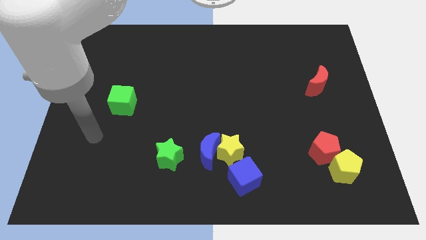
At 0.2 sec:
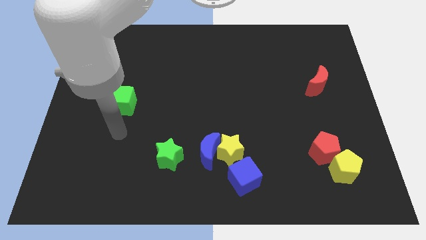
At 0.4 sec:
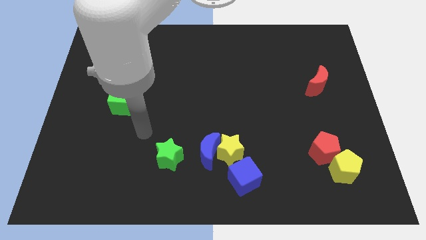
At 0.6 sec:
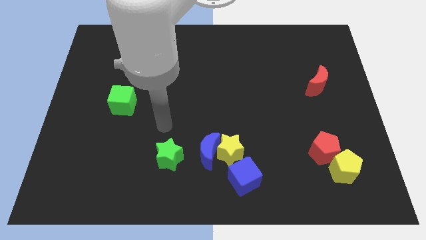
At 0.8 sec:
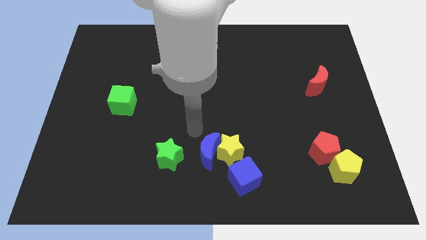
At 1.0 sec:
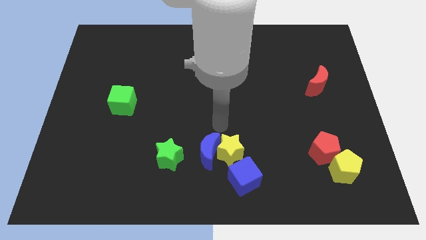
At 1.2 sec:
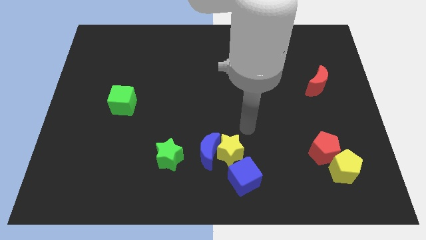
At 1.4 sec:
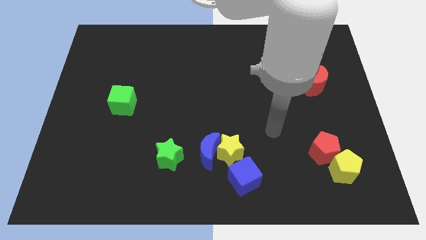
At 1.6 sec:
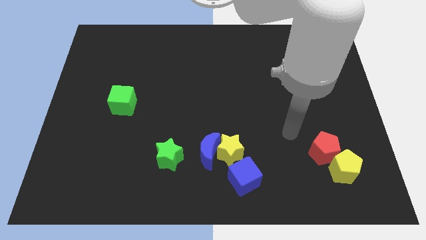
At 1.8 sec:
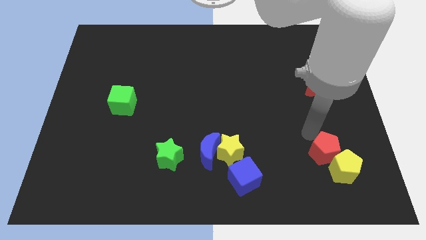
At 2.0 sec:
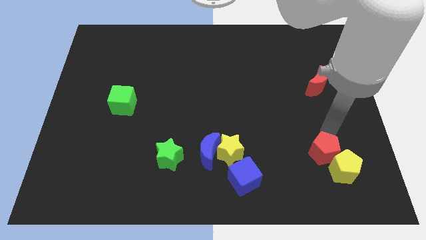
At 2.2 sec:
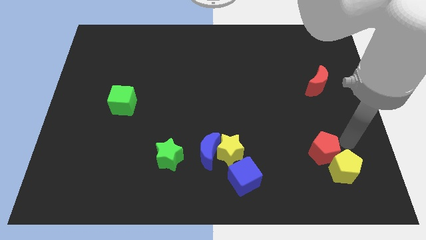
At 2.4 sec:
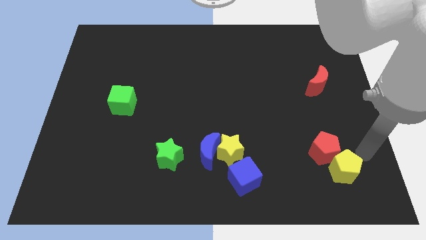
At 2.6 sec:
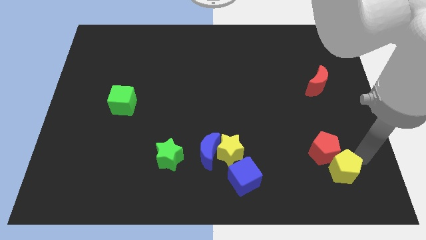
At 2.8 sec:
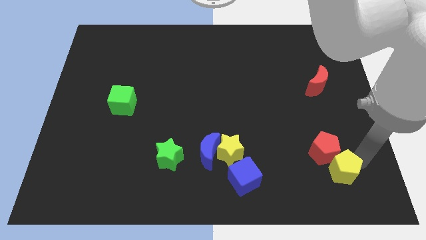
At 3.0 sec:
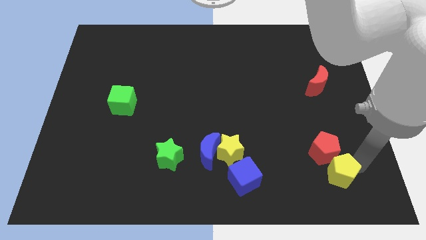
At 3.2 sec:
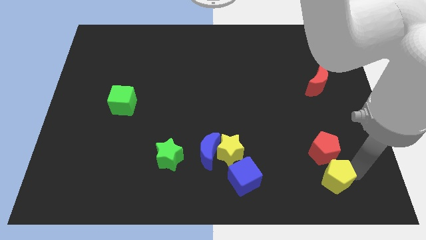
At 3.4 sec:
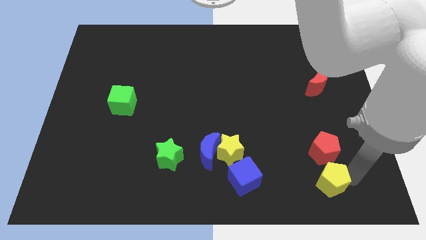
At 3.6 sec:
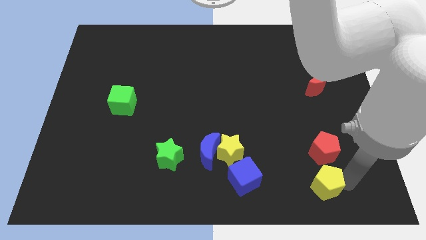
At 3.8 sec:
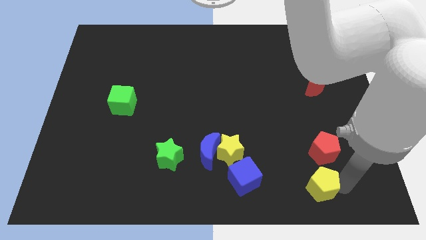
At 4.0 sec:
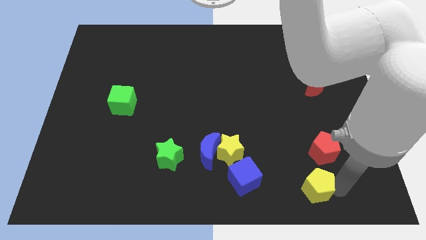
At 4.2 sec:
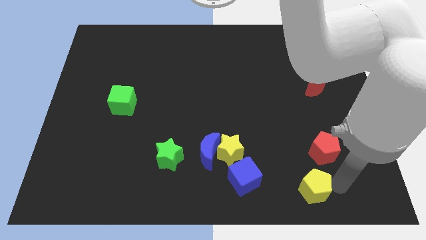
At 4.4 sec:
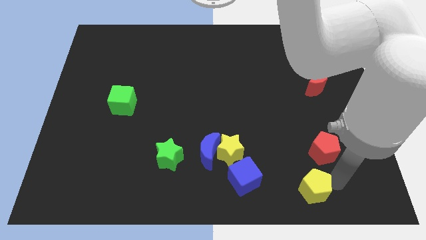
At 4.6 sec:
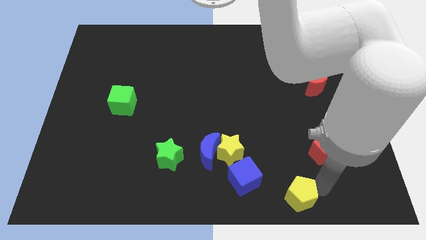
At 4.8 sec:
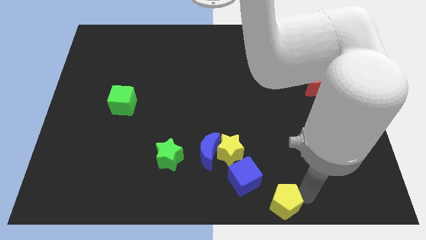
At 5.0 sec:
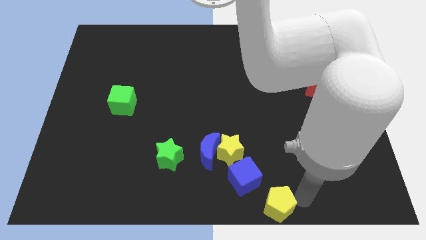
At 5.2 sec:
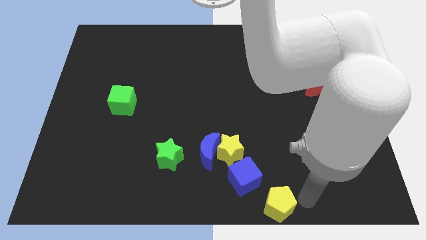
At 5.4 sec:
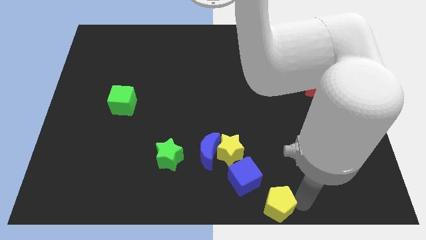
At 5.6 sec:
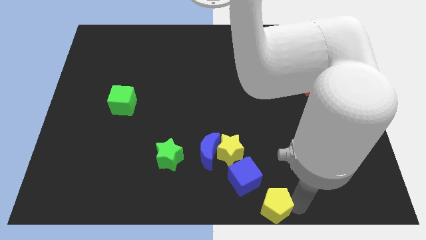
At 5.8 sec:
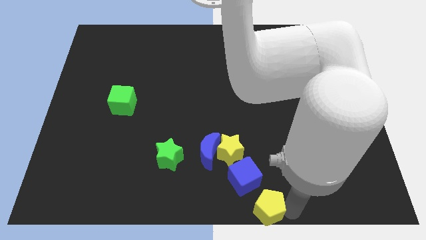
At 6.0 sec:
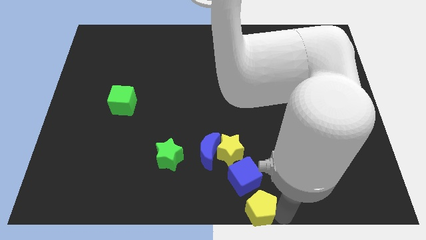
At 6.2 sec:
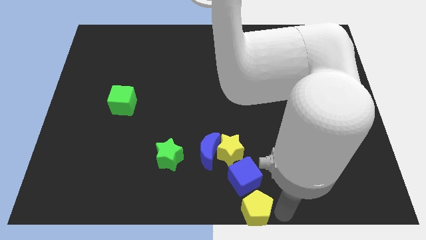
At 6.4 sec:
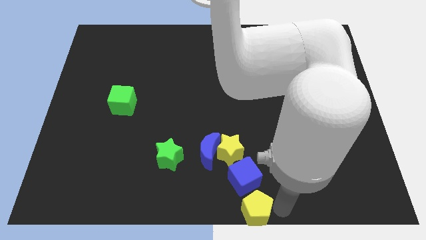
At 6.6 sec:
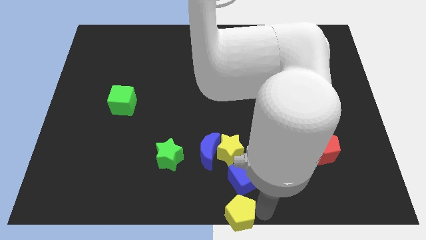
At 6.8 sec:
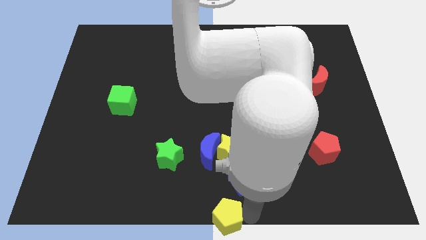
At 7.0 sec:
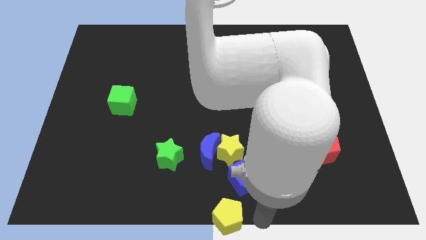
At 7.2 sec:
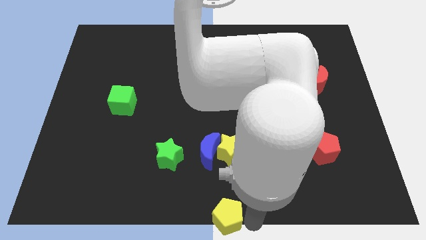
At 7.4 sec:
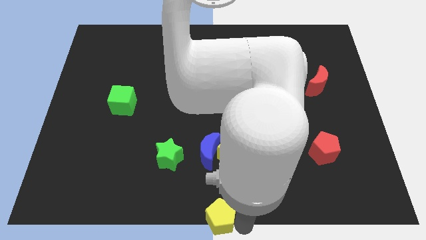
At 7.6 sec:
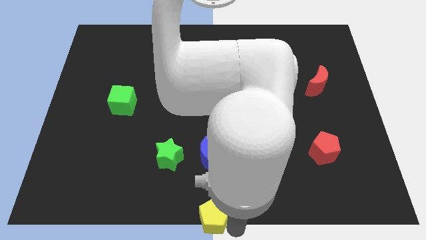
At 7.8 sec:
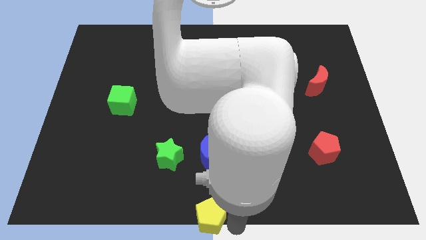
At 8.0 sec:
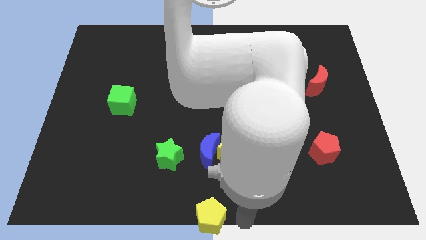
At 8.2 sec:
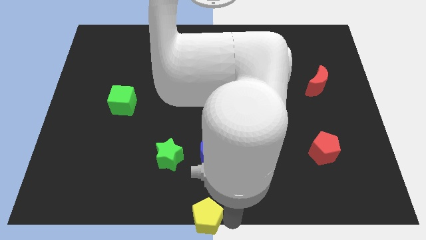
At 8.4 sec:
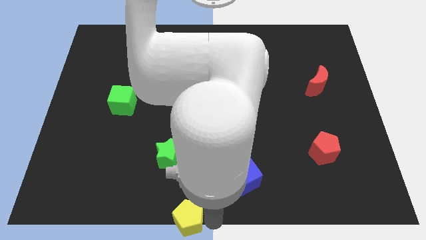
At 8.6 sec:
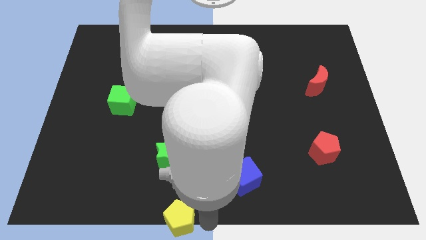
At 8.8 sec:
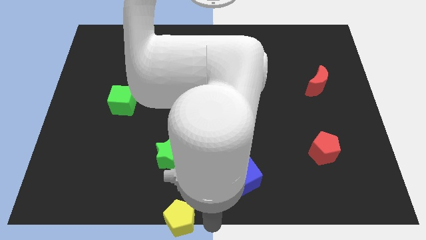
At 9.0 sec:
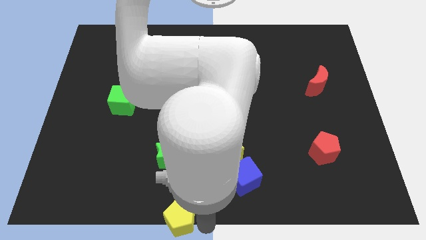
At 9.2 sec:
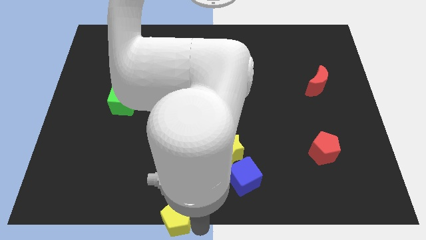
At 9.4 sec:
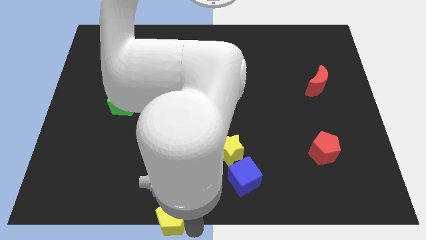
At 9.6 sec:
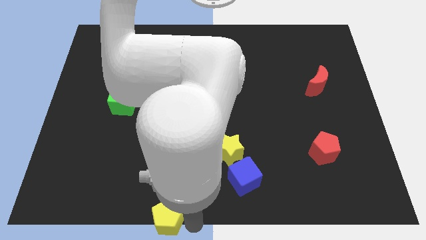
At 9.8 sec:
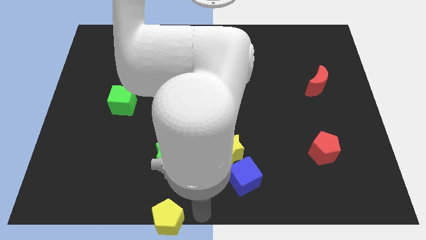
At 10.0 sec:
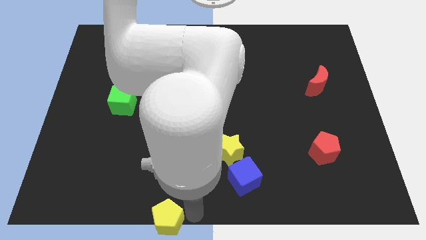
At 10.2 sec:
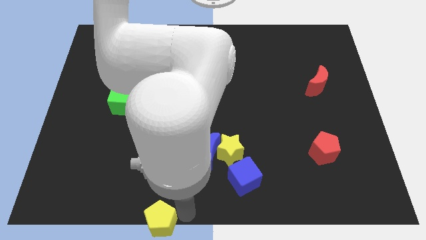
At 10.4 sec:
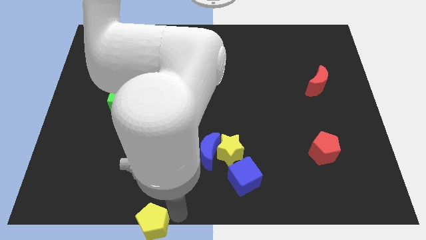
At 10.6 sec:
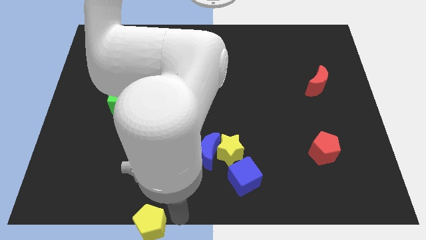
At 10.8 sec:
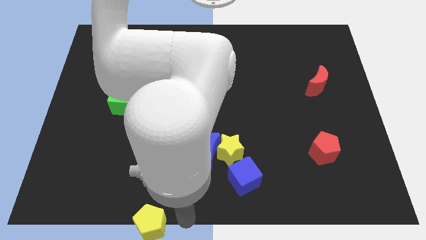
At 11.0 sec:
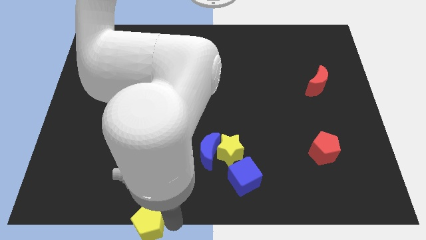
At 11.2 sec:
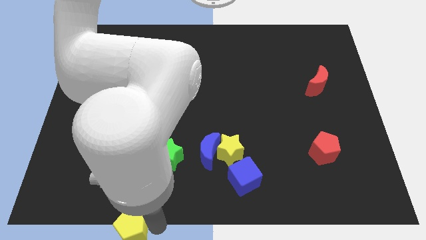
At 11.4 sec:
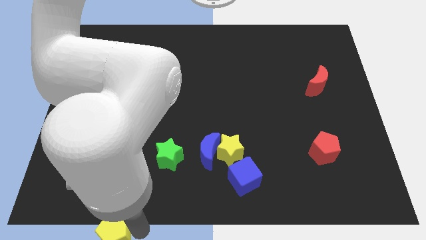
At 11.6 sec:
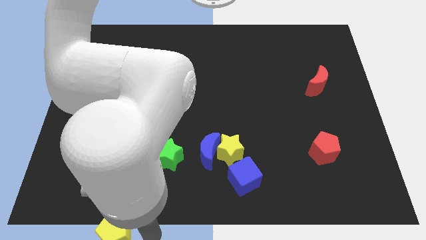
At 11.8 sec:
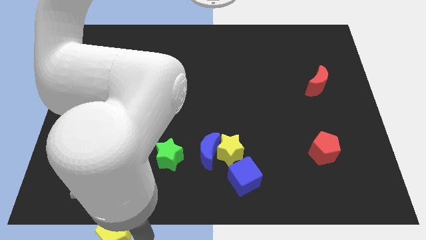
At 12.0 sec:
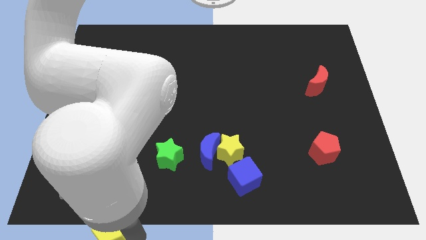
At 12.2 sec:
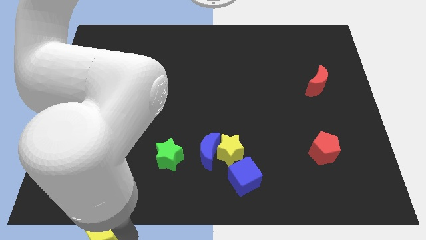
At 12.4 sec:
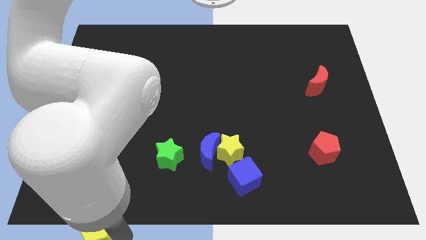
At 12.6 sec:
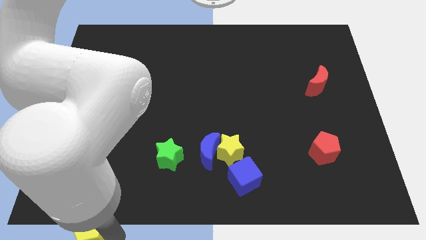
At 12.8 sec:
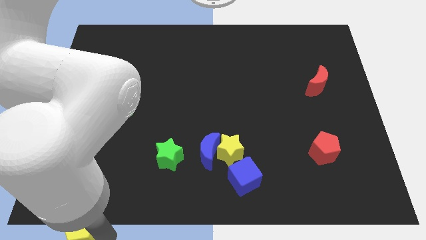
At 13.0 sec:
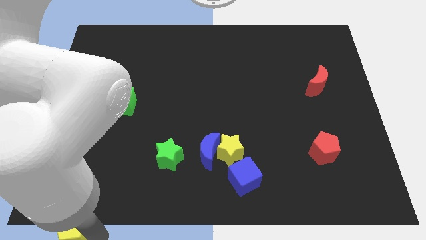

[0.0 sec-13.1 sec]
put the yellow pentagon to the bottom left corner
